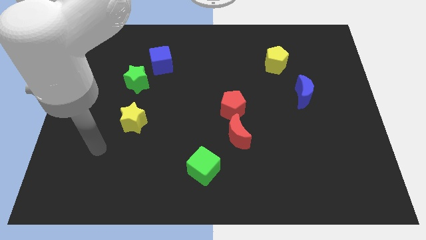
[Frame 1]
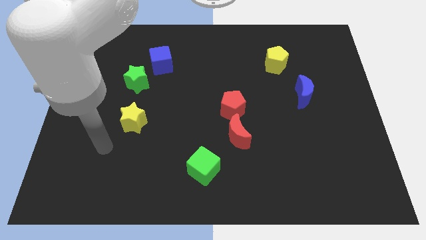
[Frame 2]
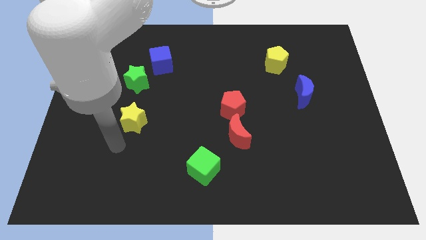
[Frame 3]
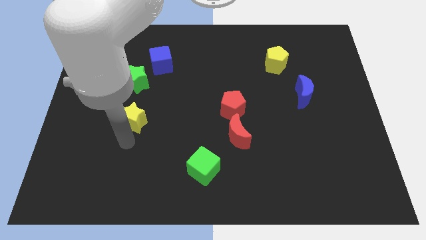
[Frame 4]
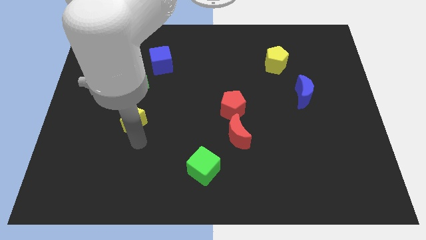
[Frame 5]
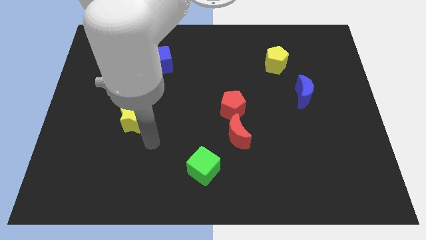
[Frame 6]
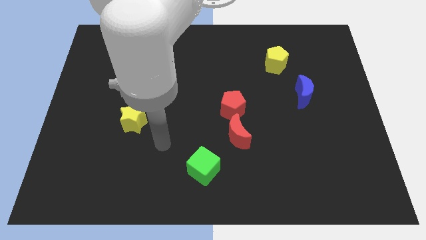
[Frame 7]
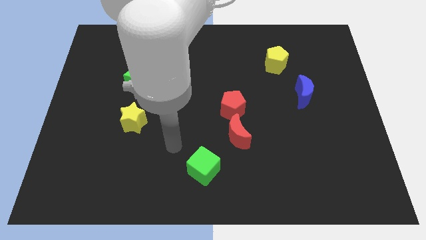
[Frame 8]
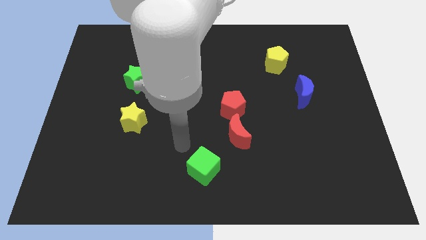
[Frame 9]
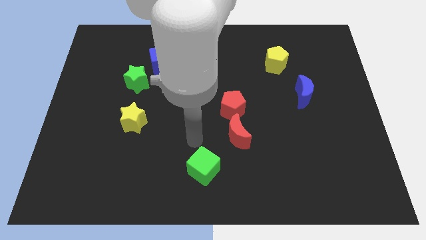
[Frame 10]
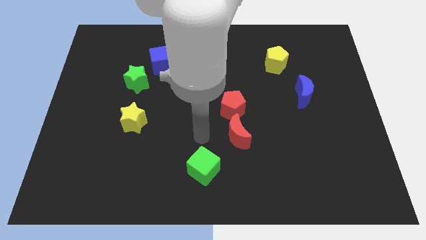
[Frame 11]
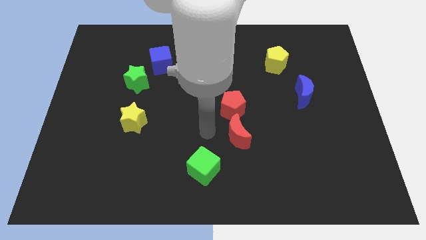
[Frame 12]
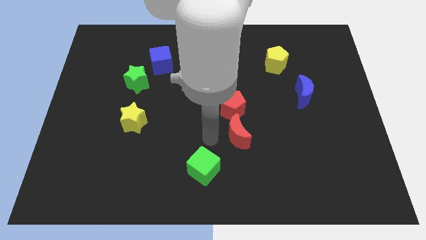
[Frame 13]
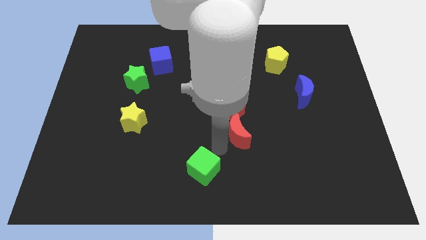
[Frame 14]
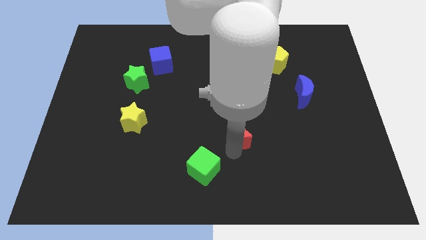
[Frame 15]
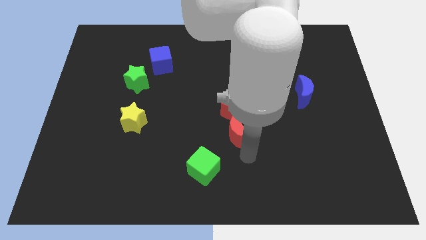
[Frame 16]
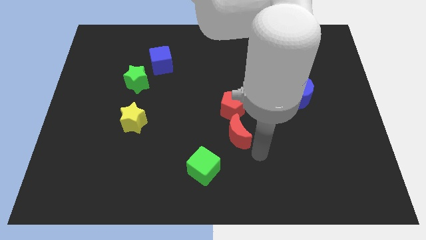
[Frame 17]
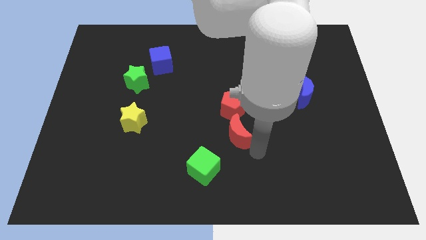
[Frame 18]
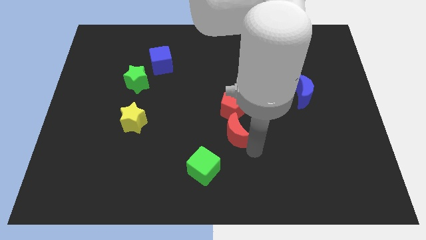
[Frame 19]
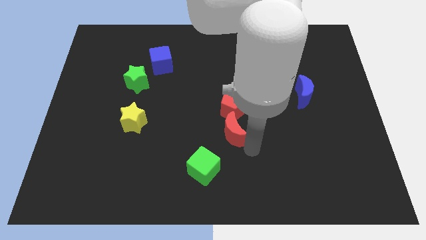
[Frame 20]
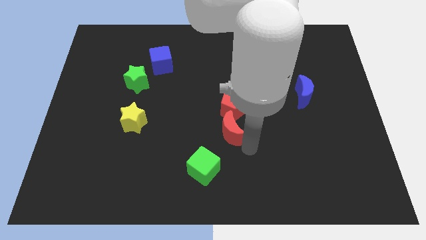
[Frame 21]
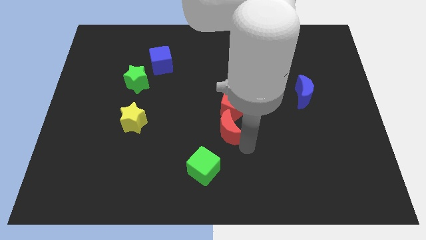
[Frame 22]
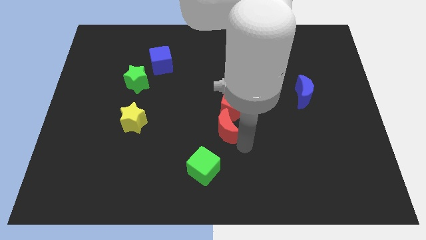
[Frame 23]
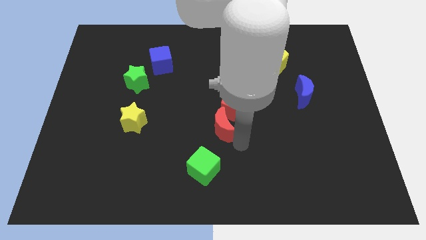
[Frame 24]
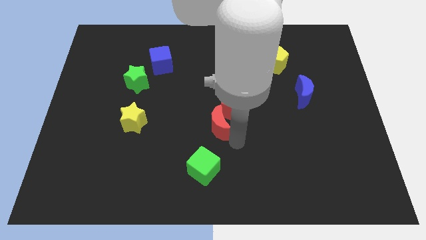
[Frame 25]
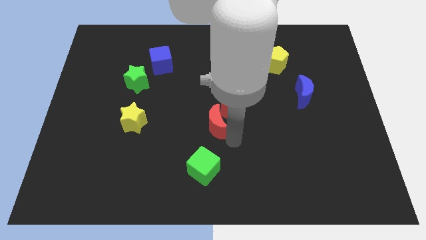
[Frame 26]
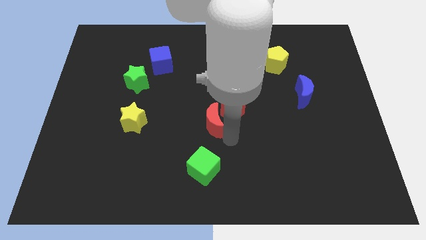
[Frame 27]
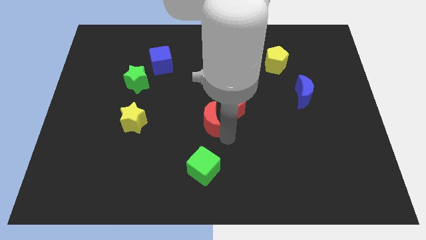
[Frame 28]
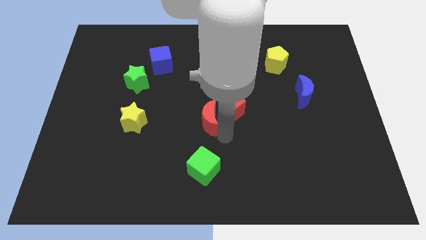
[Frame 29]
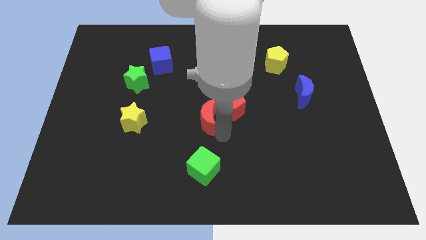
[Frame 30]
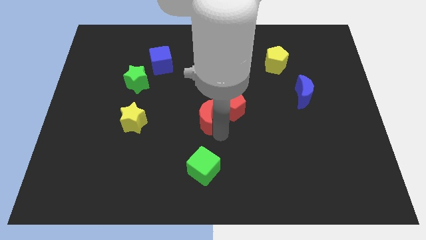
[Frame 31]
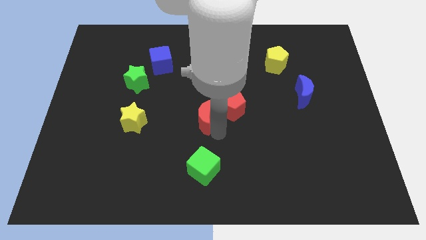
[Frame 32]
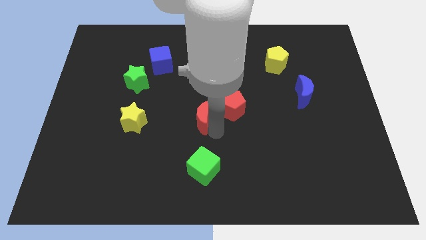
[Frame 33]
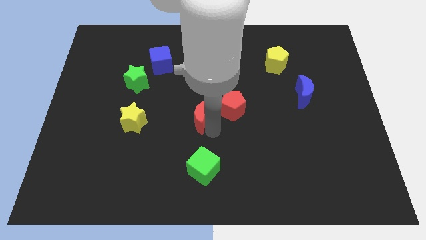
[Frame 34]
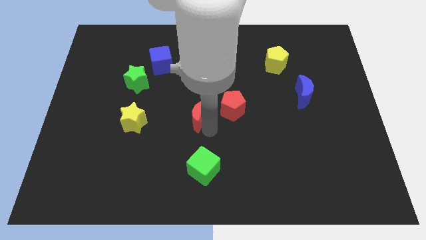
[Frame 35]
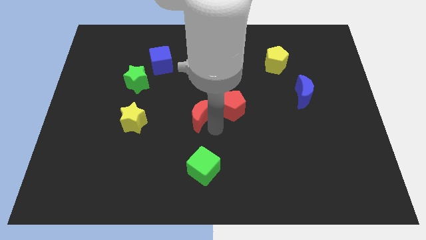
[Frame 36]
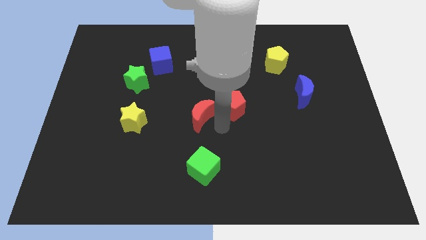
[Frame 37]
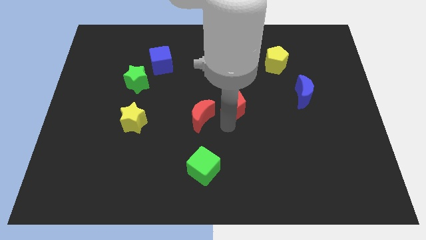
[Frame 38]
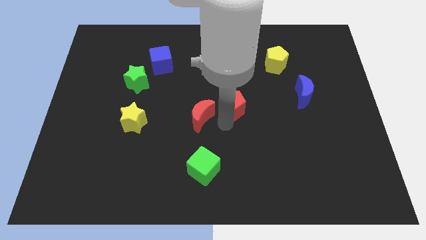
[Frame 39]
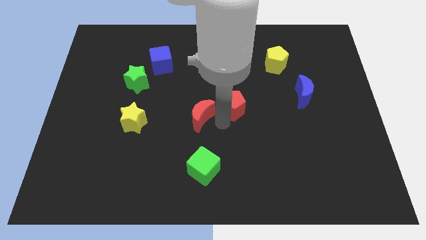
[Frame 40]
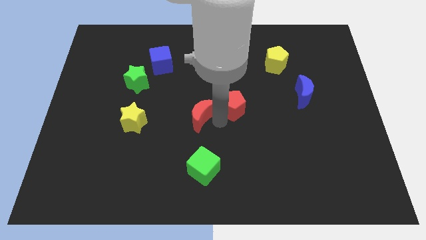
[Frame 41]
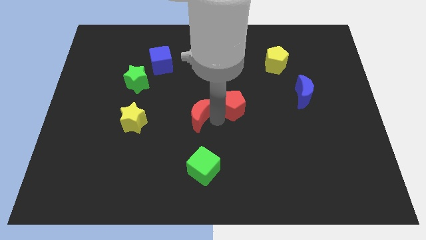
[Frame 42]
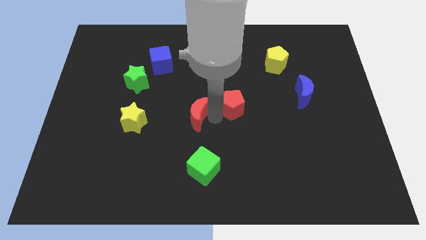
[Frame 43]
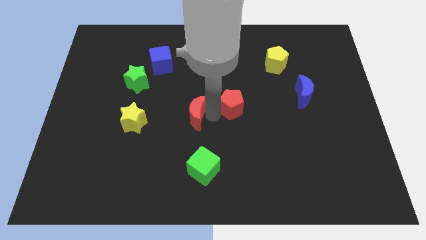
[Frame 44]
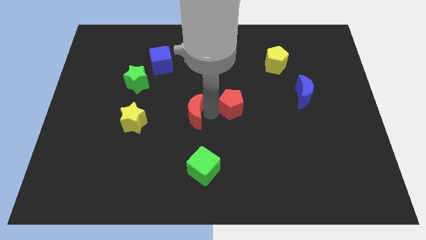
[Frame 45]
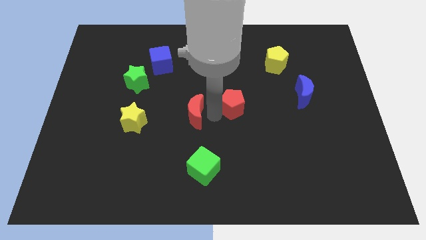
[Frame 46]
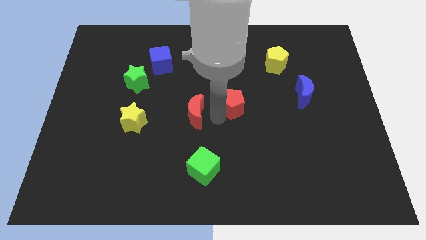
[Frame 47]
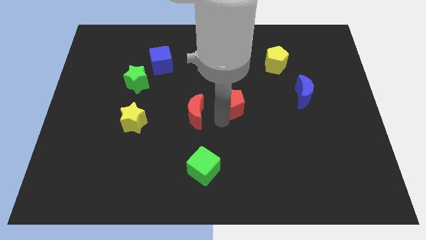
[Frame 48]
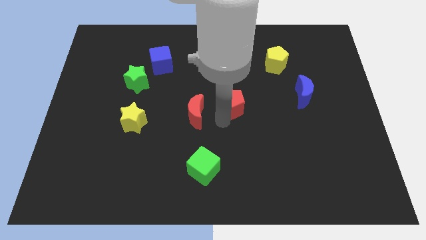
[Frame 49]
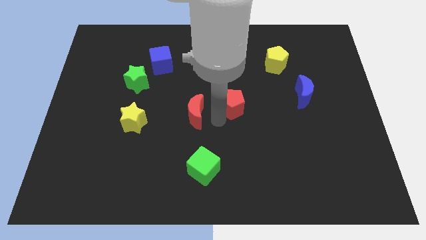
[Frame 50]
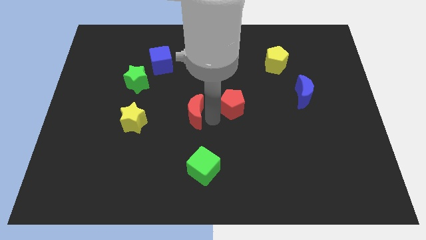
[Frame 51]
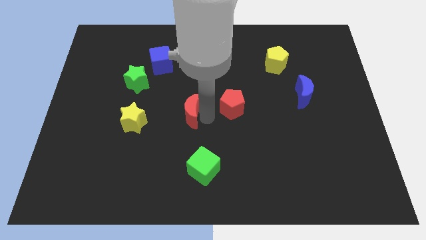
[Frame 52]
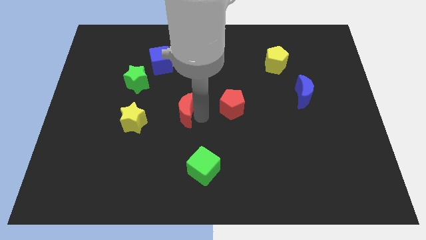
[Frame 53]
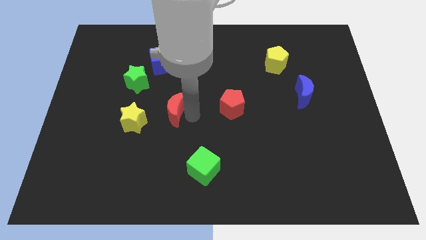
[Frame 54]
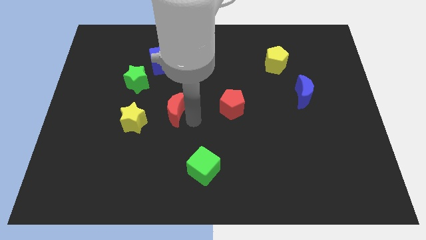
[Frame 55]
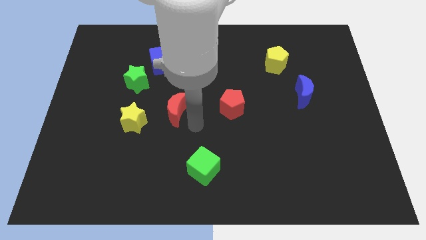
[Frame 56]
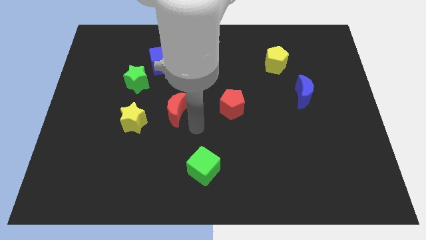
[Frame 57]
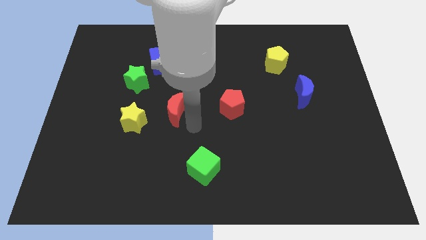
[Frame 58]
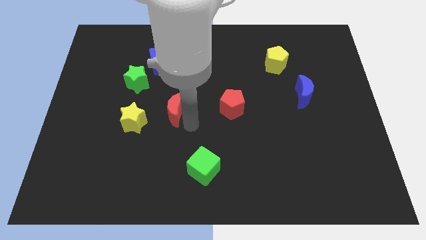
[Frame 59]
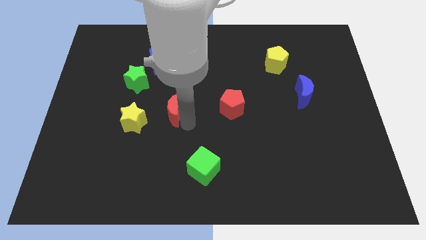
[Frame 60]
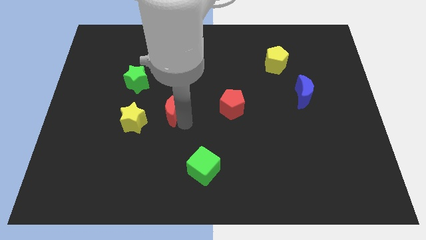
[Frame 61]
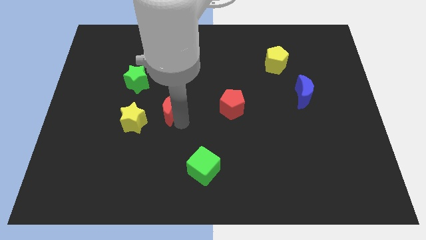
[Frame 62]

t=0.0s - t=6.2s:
put the red moon to the bottom right of the green star

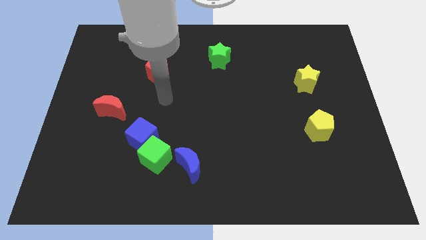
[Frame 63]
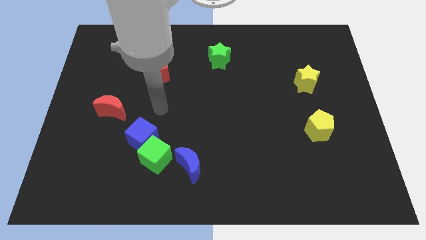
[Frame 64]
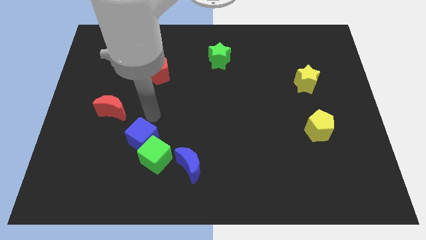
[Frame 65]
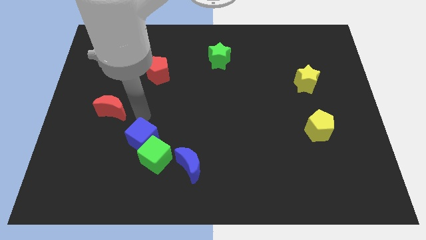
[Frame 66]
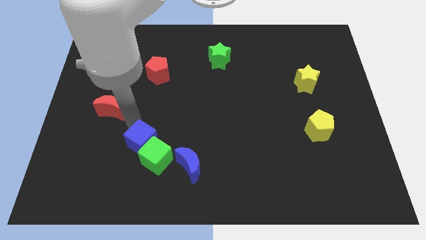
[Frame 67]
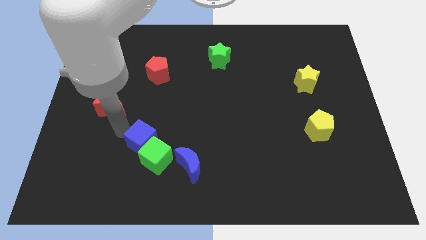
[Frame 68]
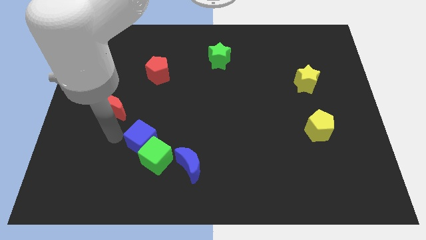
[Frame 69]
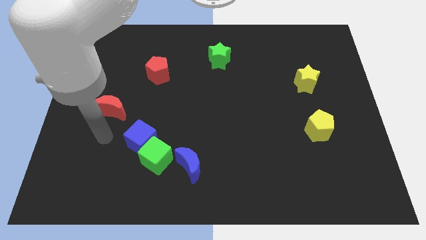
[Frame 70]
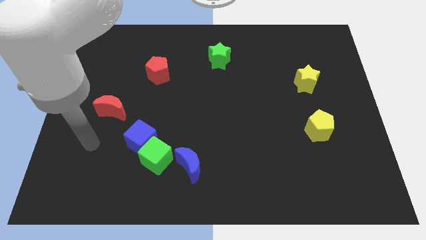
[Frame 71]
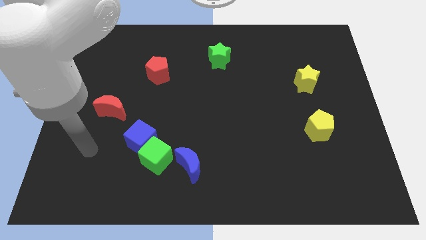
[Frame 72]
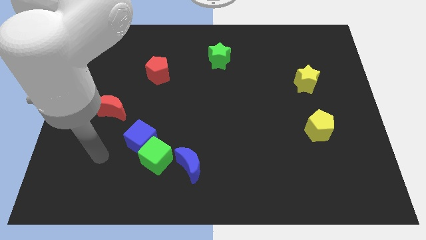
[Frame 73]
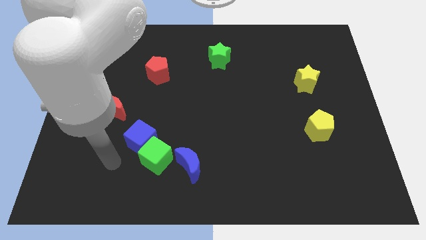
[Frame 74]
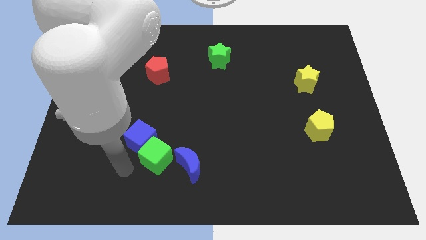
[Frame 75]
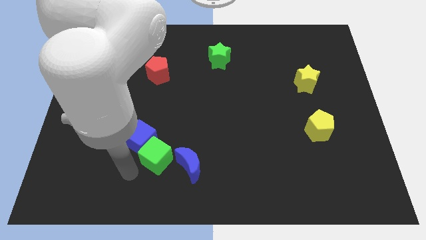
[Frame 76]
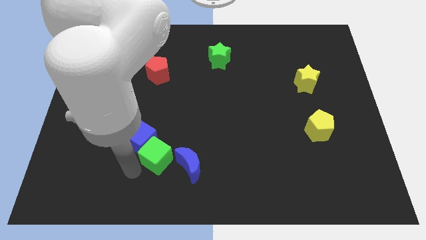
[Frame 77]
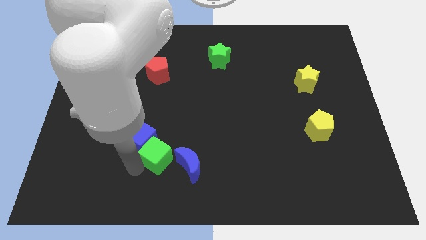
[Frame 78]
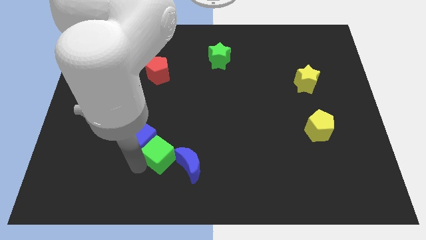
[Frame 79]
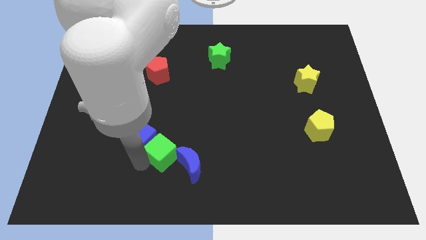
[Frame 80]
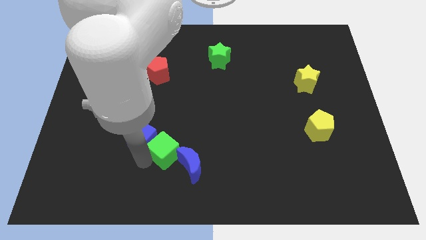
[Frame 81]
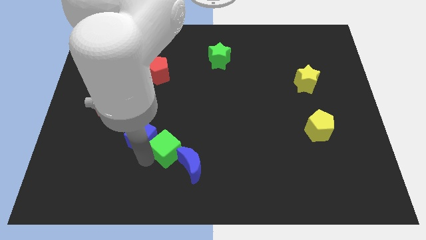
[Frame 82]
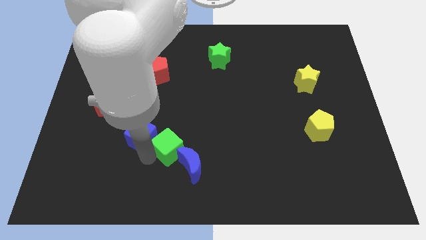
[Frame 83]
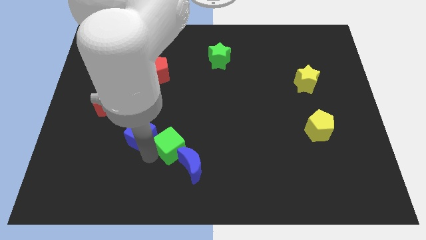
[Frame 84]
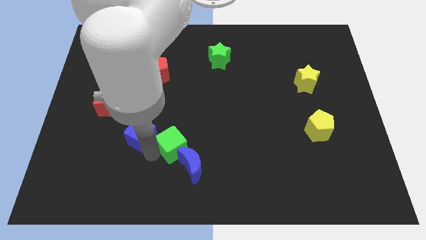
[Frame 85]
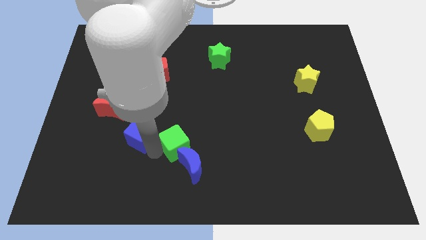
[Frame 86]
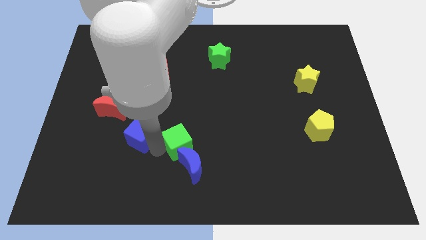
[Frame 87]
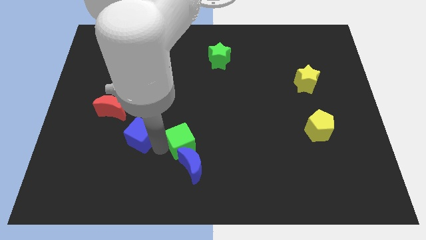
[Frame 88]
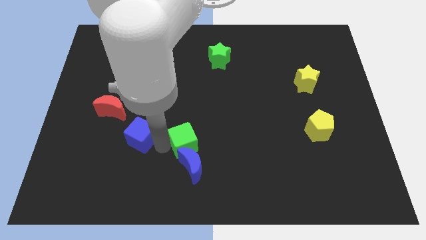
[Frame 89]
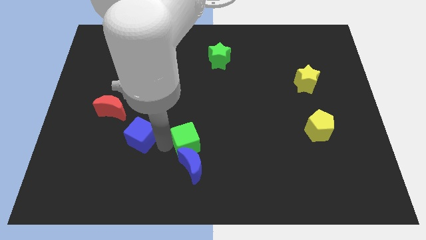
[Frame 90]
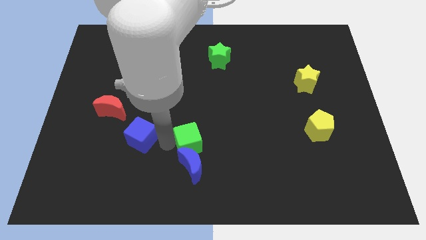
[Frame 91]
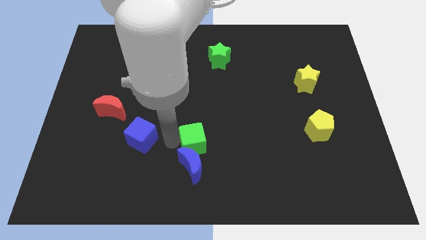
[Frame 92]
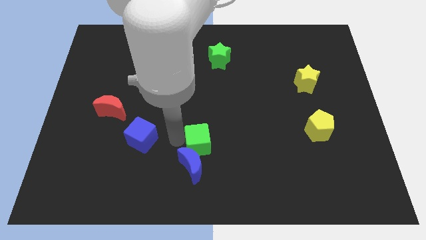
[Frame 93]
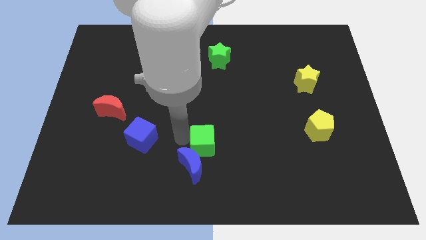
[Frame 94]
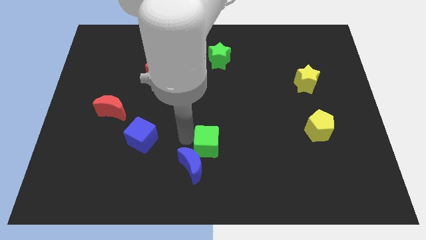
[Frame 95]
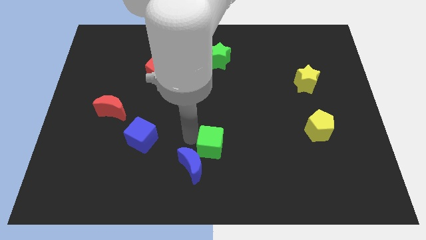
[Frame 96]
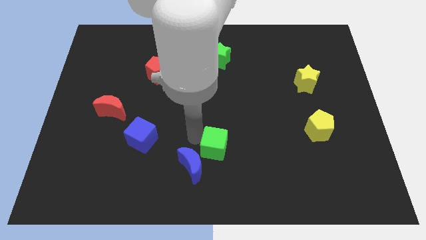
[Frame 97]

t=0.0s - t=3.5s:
put the green cube just right of the blue moon
